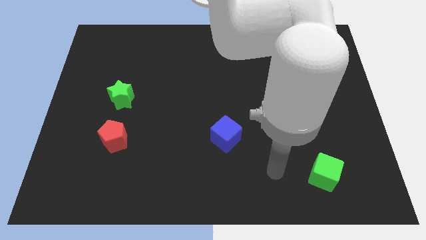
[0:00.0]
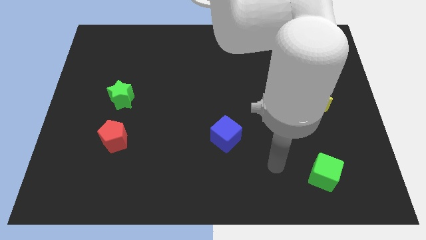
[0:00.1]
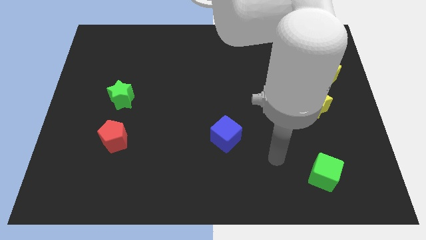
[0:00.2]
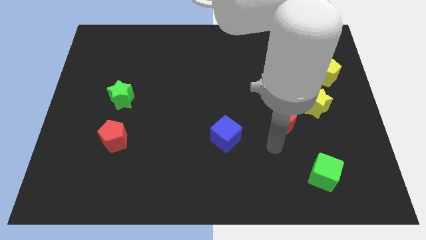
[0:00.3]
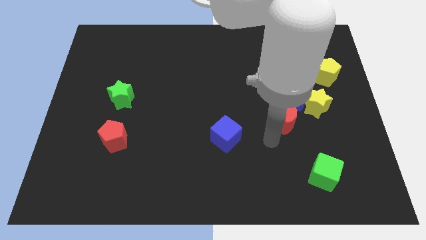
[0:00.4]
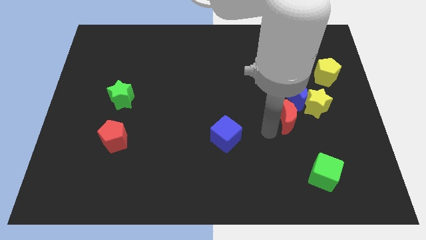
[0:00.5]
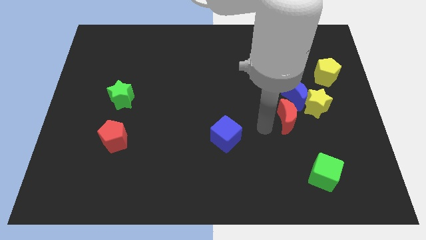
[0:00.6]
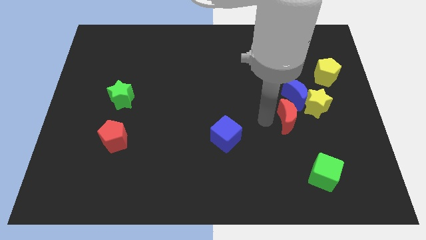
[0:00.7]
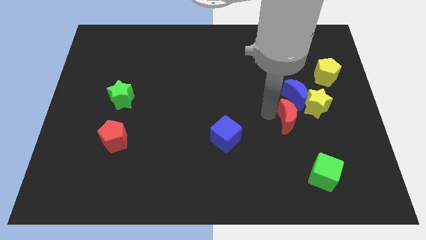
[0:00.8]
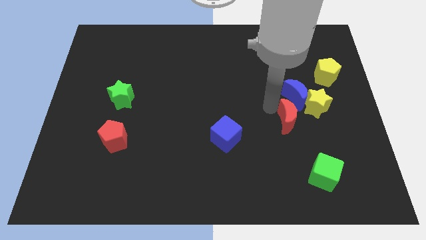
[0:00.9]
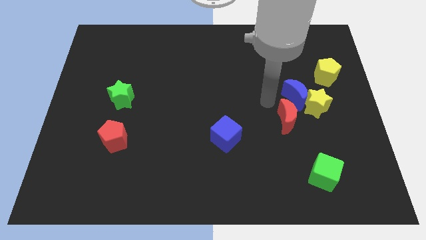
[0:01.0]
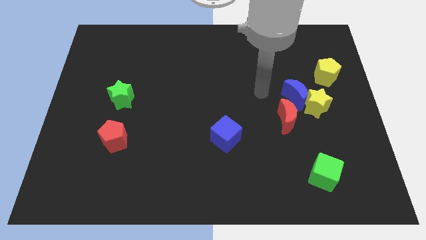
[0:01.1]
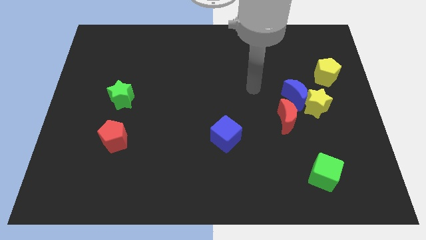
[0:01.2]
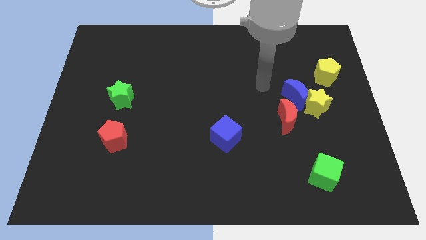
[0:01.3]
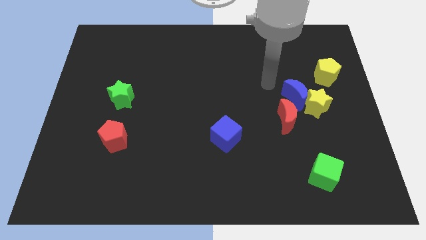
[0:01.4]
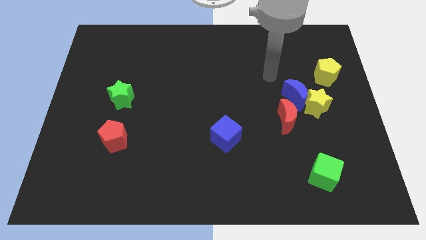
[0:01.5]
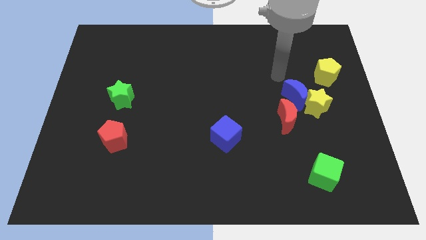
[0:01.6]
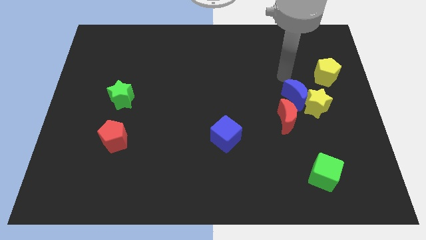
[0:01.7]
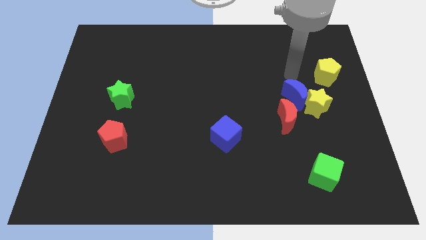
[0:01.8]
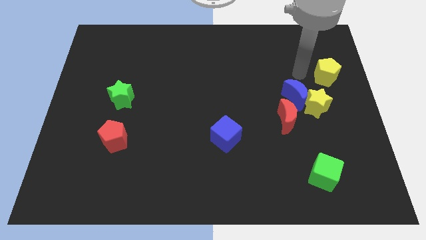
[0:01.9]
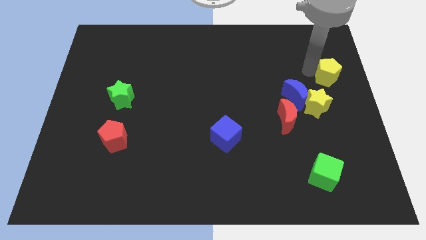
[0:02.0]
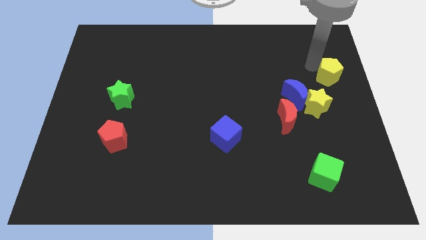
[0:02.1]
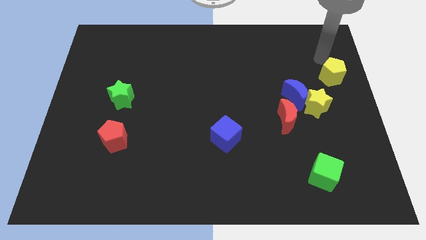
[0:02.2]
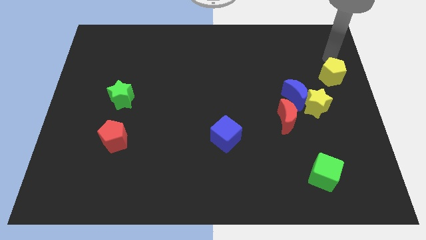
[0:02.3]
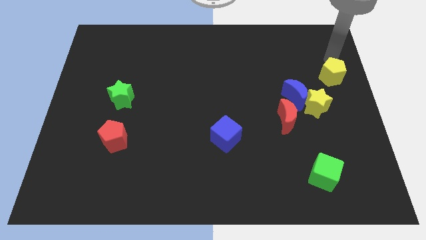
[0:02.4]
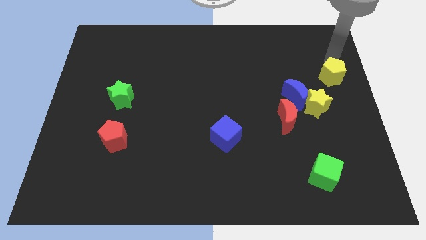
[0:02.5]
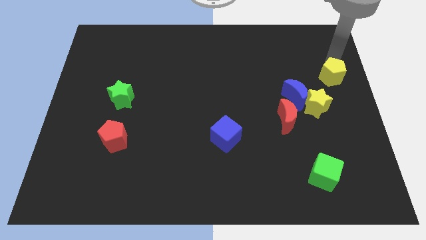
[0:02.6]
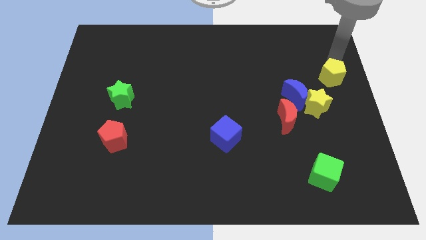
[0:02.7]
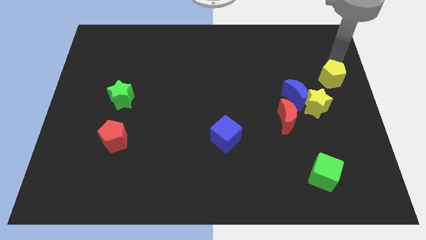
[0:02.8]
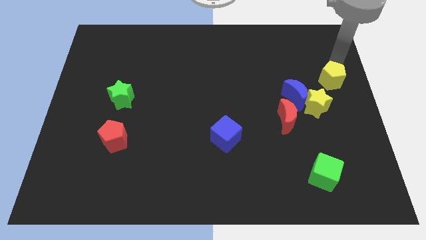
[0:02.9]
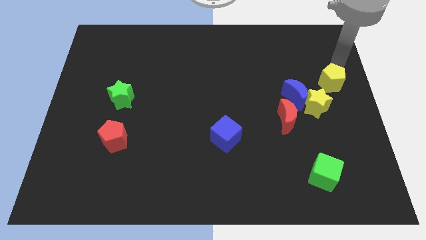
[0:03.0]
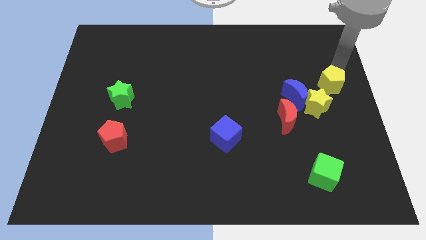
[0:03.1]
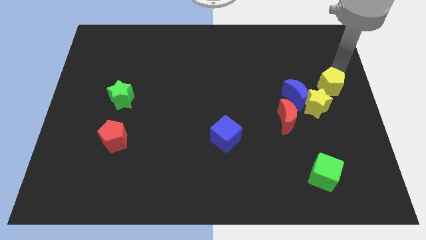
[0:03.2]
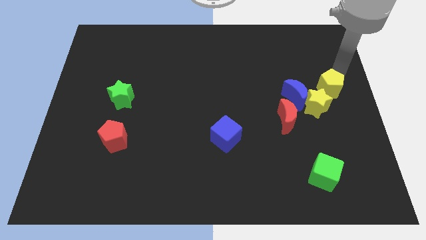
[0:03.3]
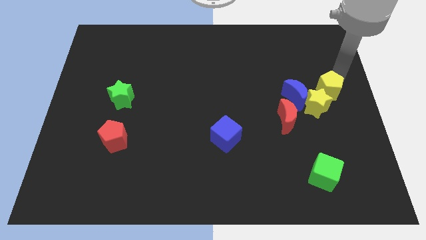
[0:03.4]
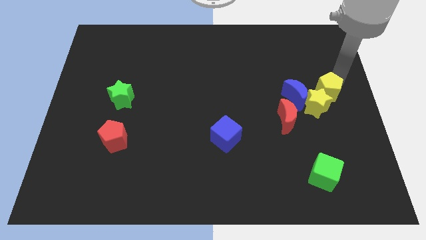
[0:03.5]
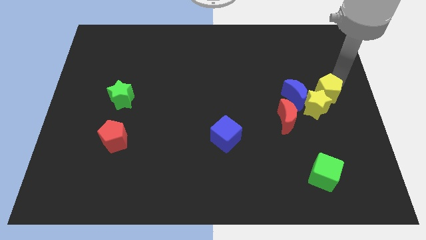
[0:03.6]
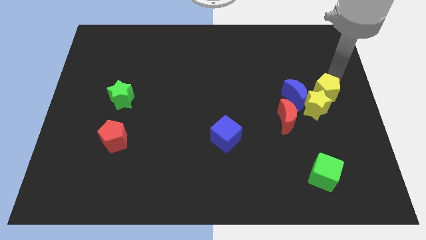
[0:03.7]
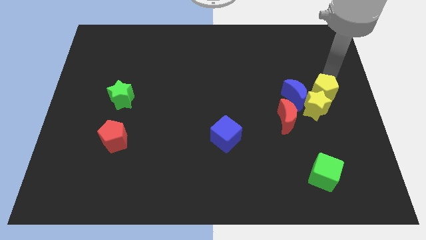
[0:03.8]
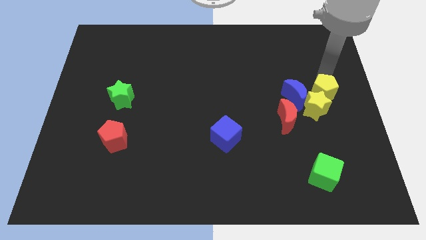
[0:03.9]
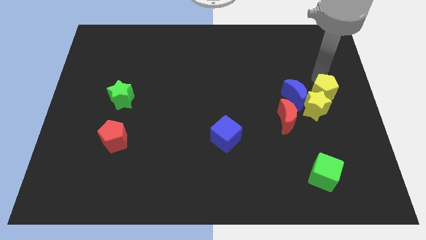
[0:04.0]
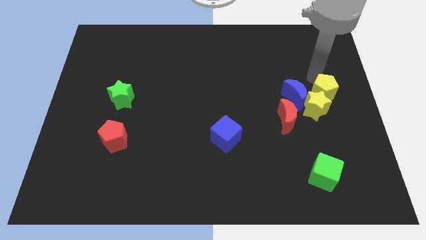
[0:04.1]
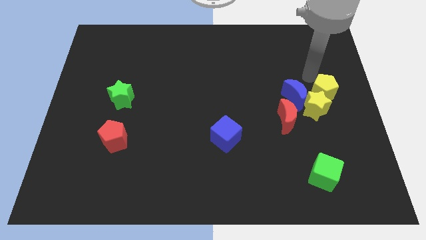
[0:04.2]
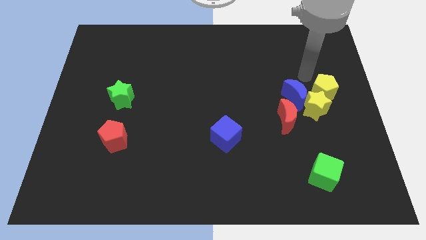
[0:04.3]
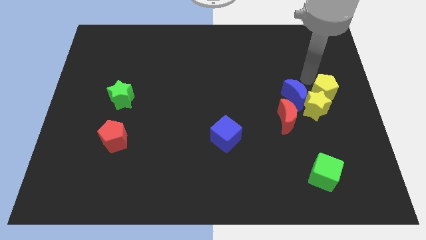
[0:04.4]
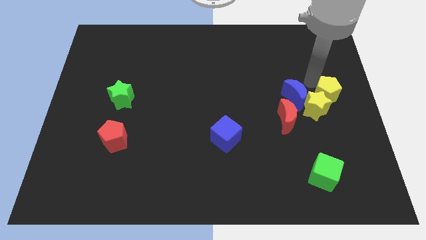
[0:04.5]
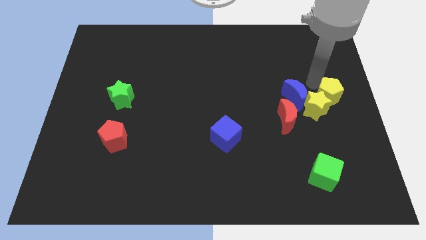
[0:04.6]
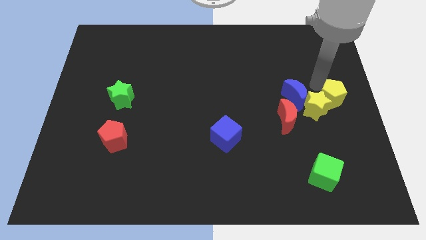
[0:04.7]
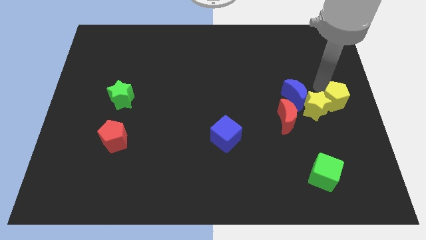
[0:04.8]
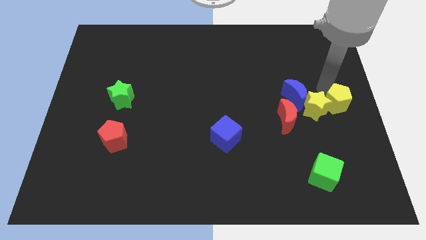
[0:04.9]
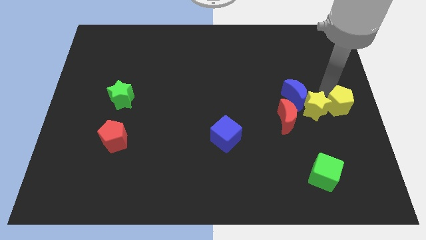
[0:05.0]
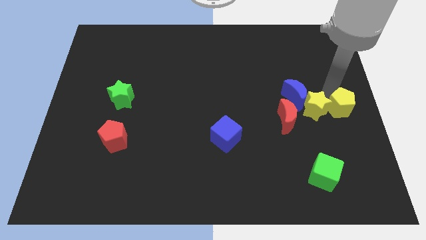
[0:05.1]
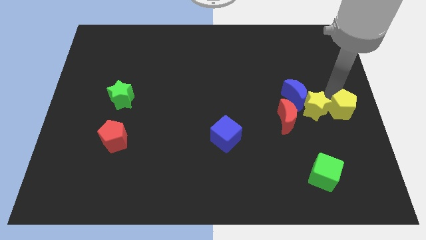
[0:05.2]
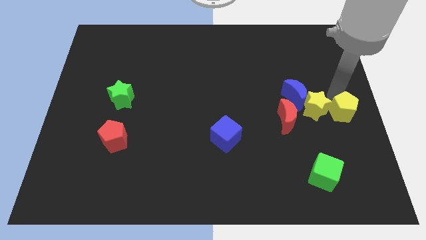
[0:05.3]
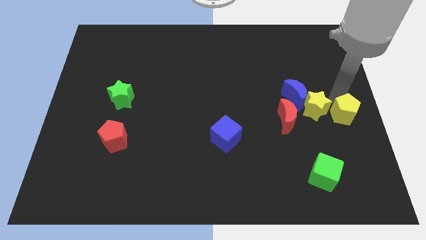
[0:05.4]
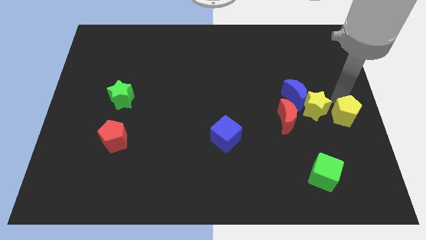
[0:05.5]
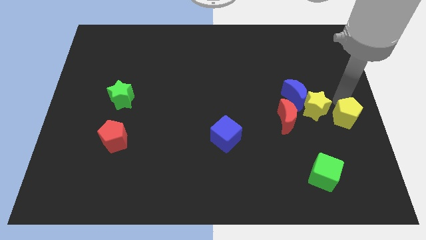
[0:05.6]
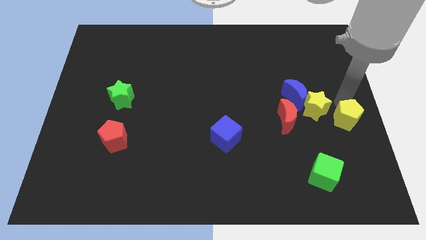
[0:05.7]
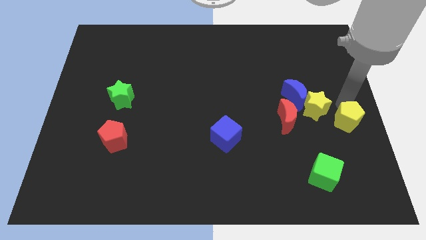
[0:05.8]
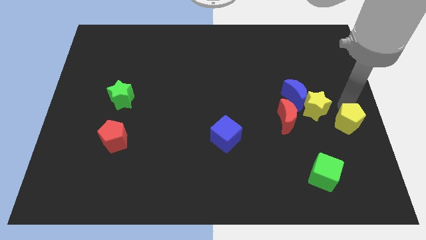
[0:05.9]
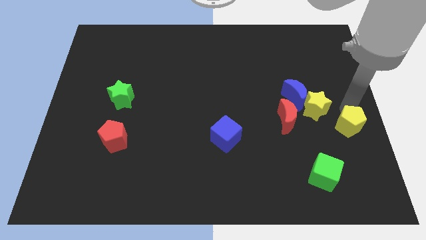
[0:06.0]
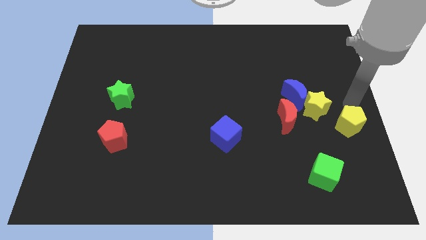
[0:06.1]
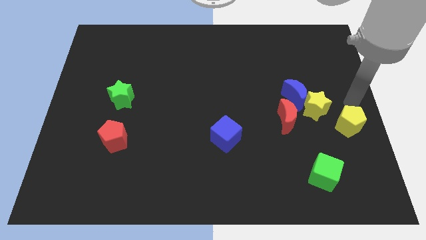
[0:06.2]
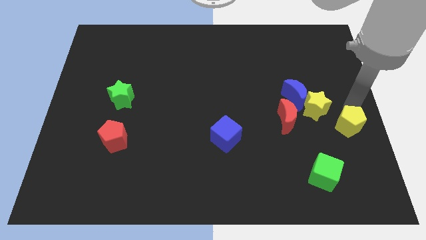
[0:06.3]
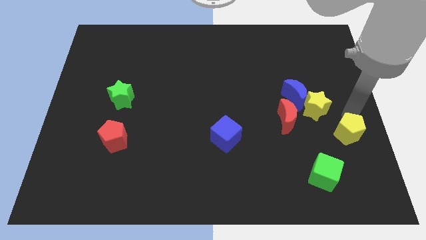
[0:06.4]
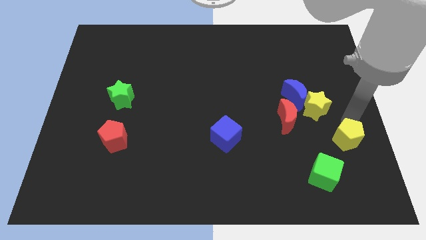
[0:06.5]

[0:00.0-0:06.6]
slide the yellow pentagon to the top right of the green cube

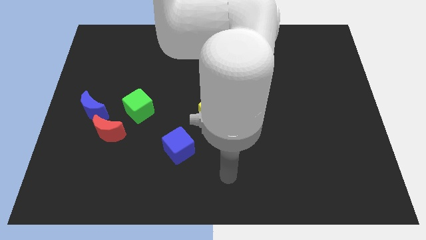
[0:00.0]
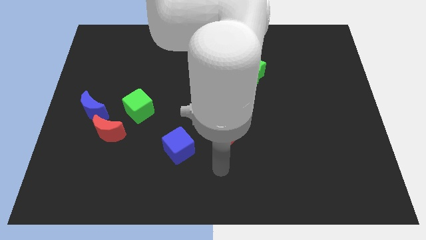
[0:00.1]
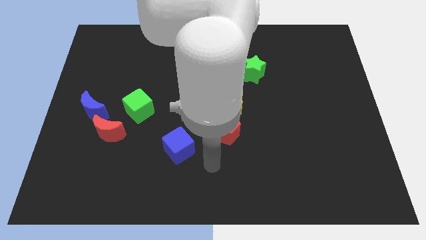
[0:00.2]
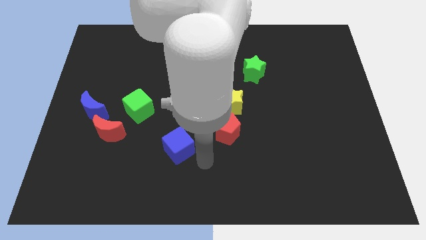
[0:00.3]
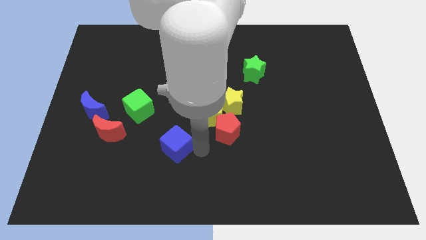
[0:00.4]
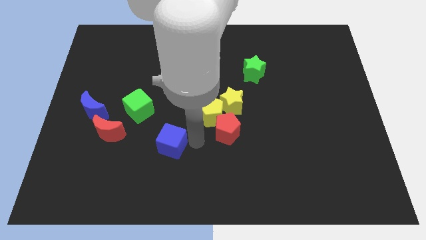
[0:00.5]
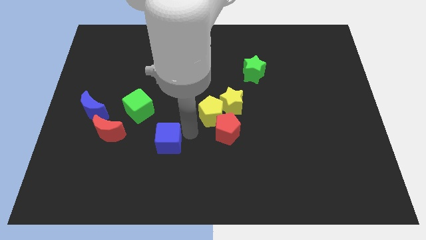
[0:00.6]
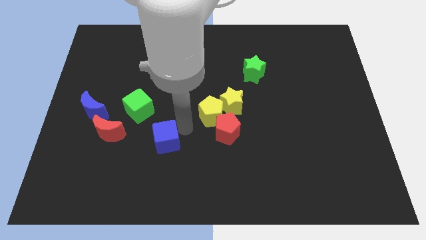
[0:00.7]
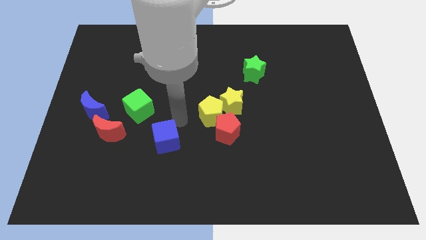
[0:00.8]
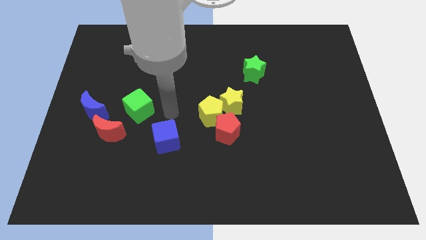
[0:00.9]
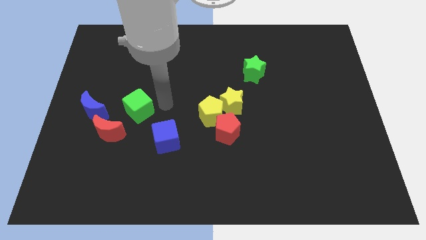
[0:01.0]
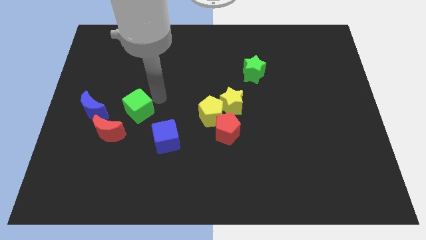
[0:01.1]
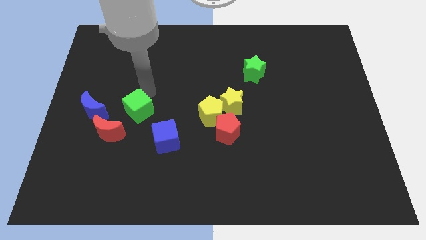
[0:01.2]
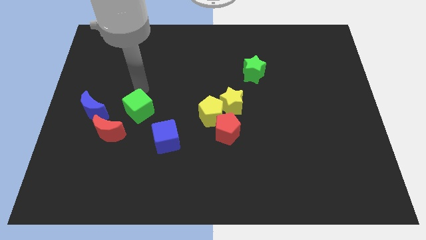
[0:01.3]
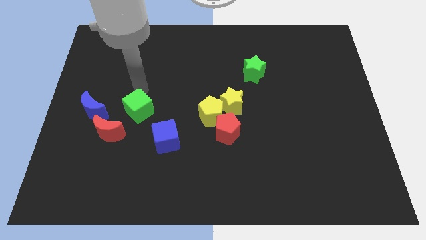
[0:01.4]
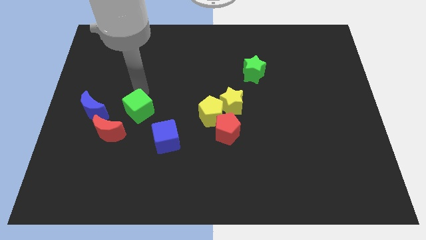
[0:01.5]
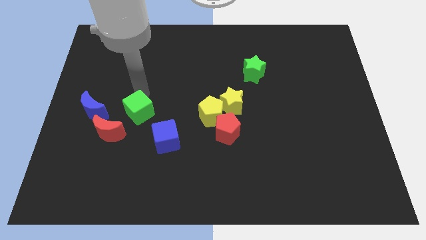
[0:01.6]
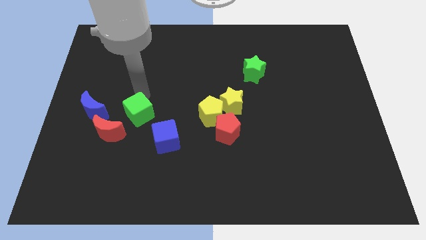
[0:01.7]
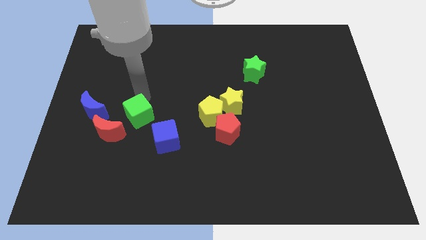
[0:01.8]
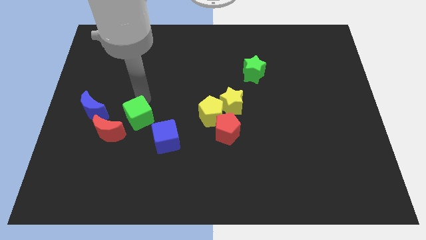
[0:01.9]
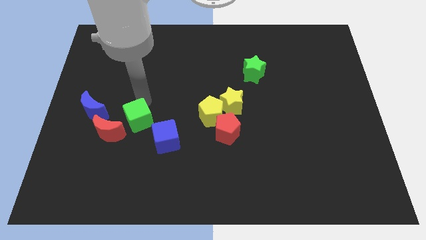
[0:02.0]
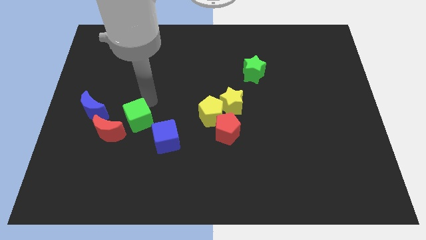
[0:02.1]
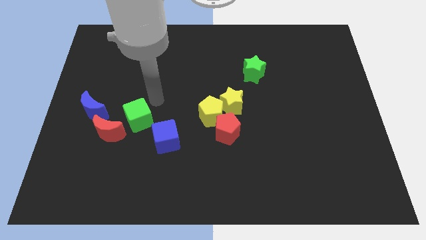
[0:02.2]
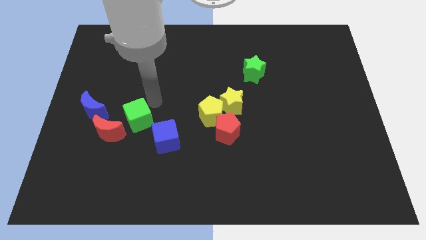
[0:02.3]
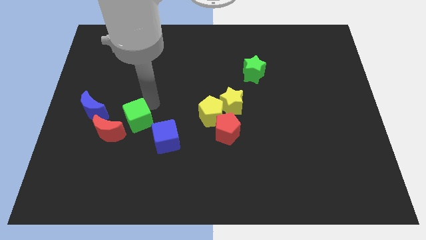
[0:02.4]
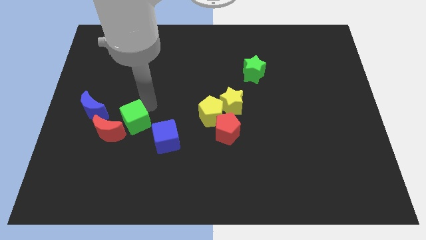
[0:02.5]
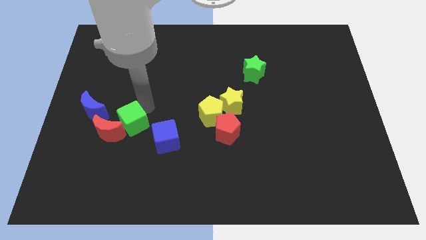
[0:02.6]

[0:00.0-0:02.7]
put the green cube to the left side of the blue cube
